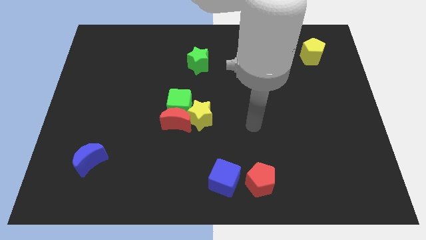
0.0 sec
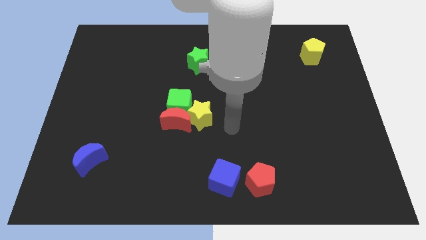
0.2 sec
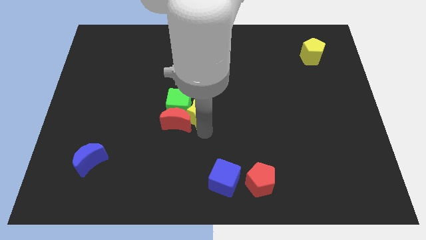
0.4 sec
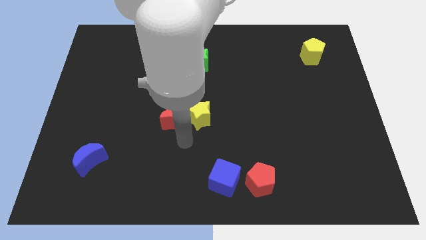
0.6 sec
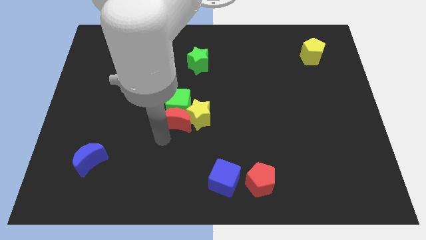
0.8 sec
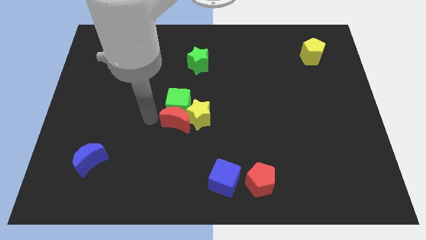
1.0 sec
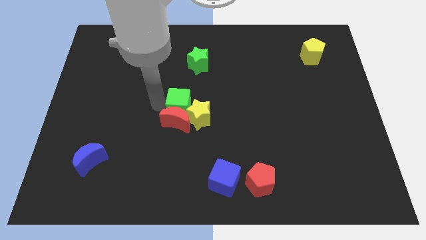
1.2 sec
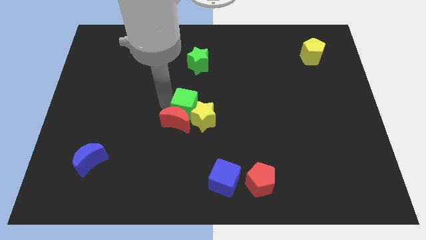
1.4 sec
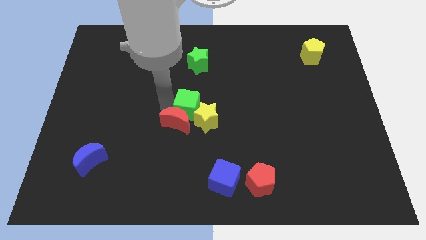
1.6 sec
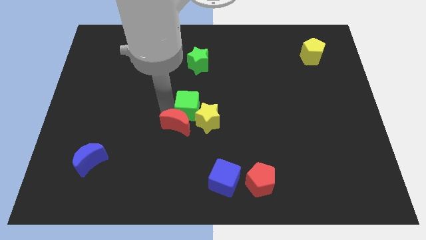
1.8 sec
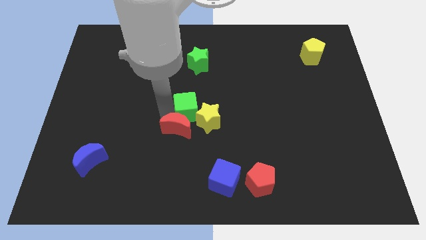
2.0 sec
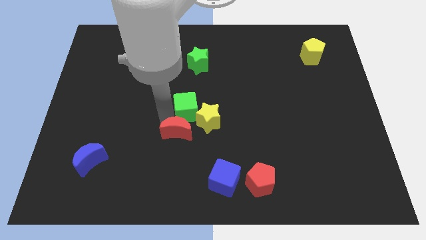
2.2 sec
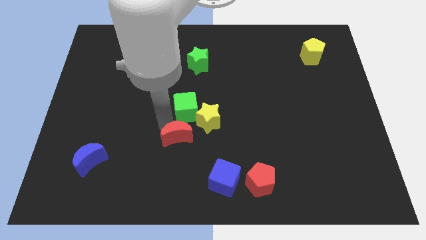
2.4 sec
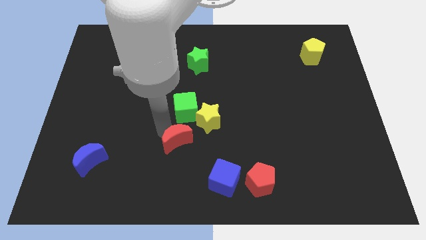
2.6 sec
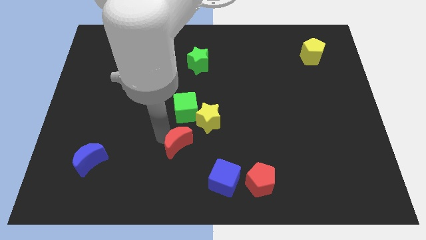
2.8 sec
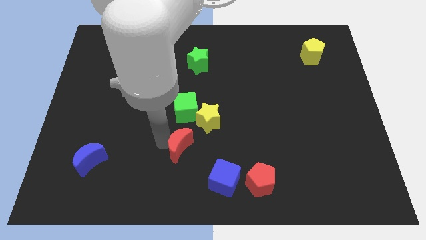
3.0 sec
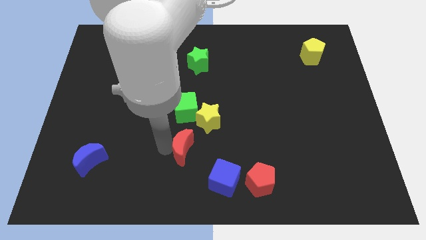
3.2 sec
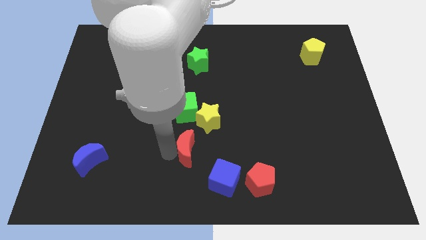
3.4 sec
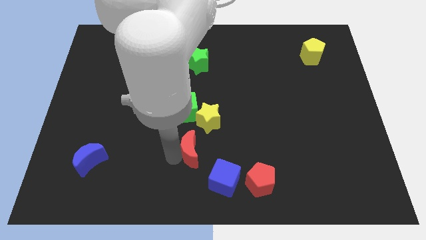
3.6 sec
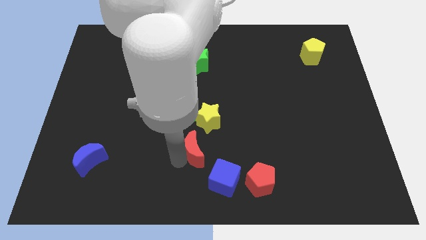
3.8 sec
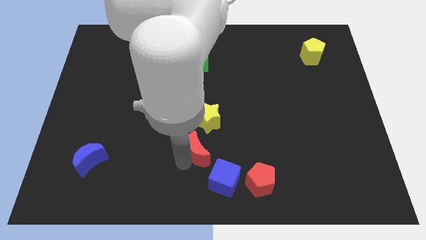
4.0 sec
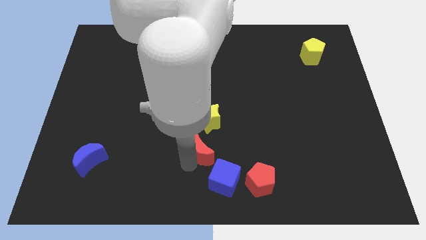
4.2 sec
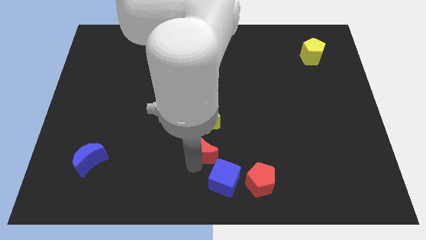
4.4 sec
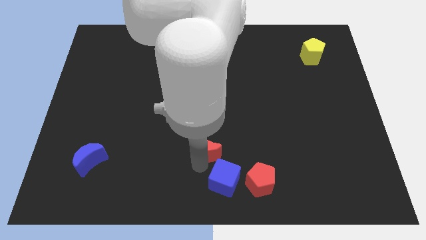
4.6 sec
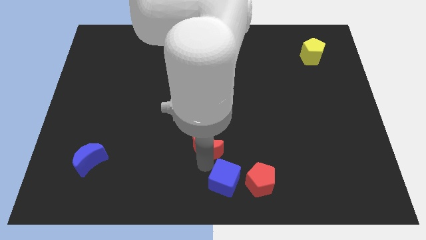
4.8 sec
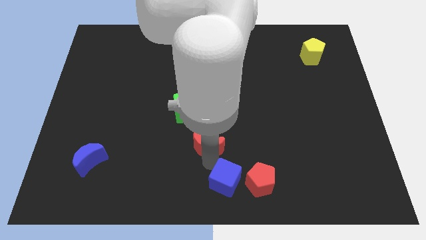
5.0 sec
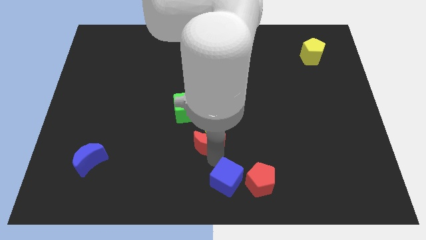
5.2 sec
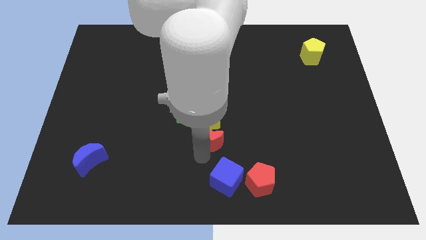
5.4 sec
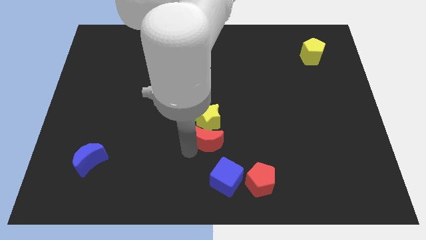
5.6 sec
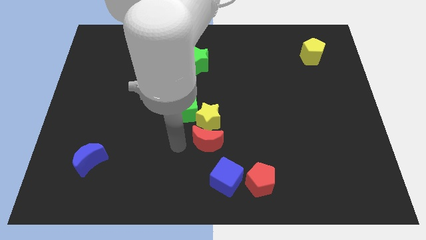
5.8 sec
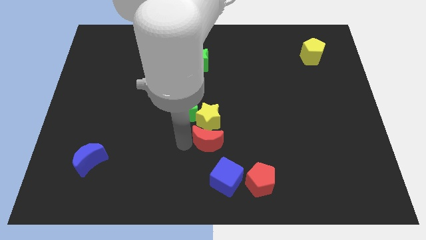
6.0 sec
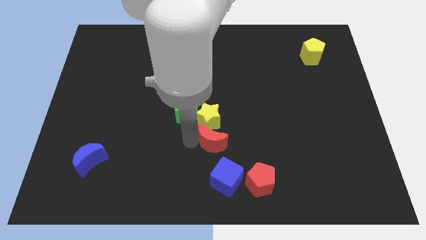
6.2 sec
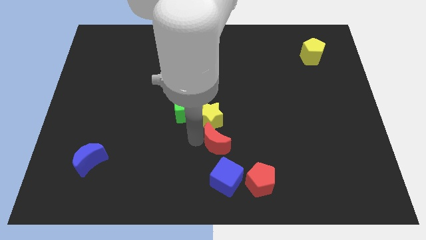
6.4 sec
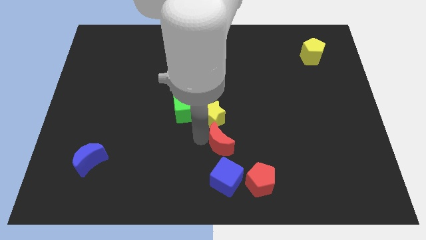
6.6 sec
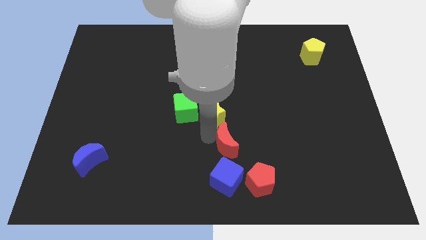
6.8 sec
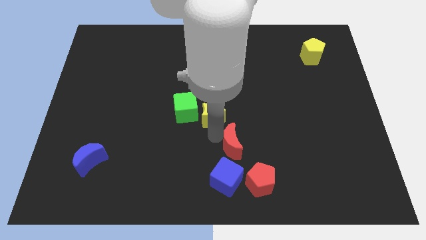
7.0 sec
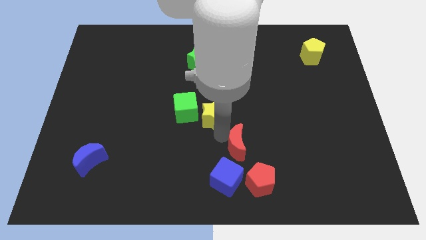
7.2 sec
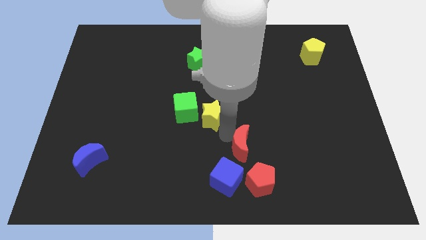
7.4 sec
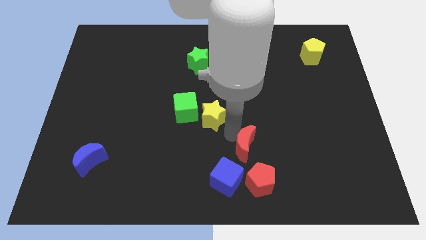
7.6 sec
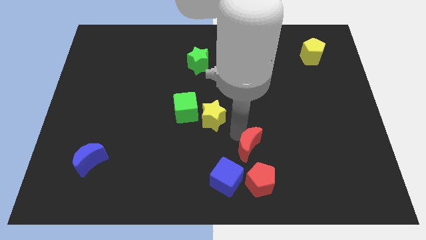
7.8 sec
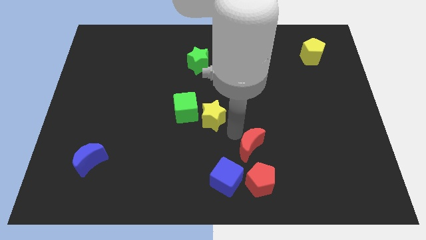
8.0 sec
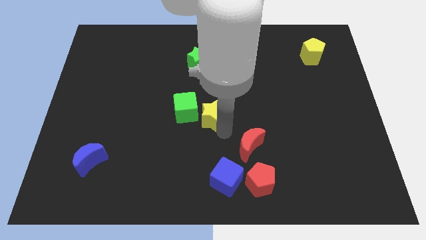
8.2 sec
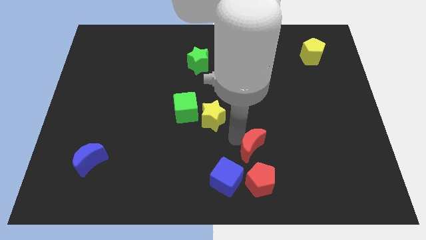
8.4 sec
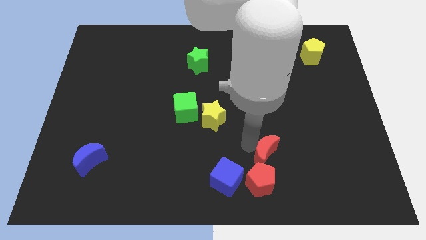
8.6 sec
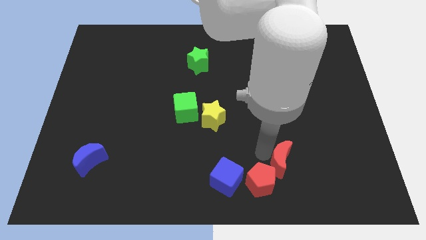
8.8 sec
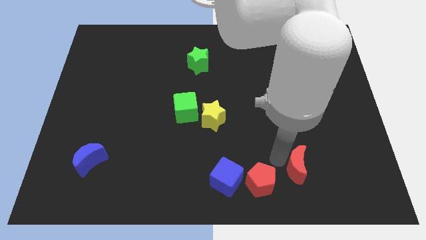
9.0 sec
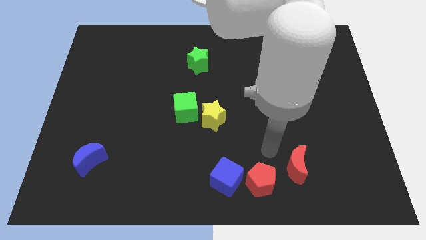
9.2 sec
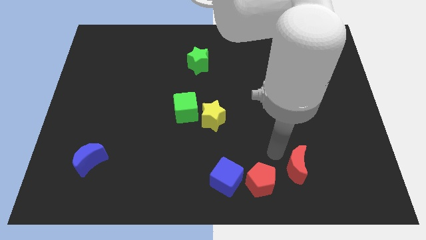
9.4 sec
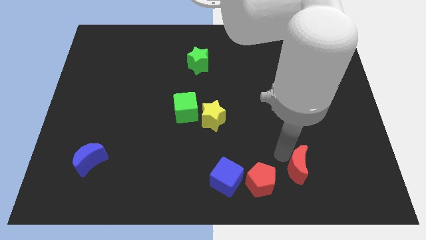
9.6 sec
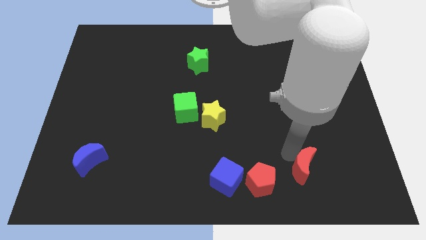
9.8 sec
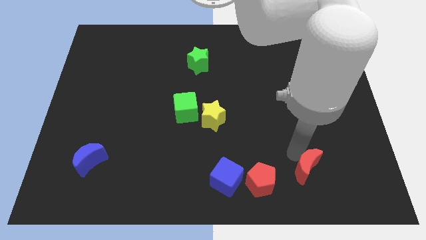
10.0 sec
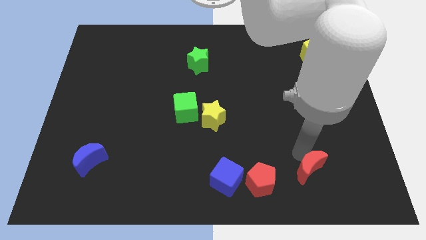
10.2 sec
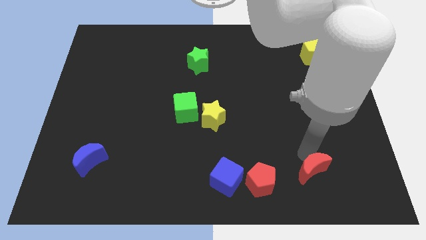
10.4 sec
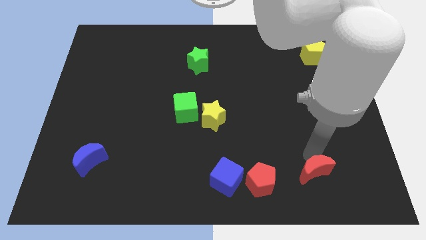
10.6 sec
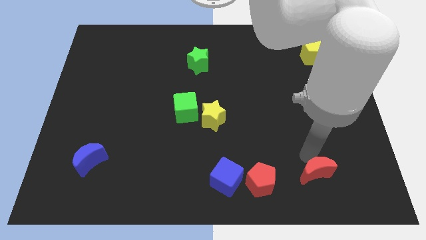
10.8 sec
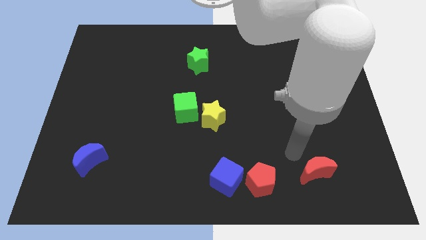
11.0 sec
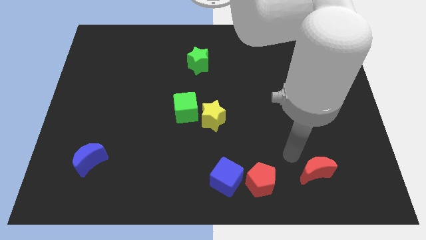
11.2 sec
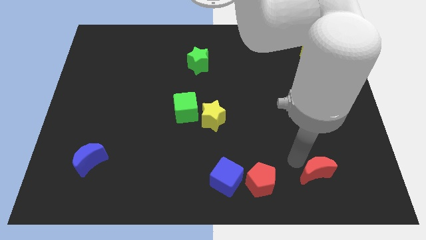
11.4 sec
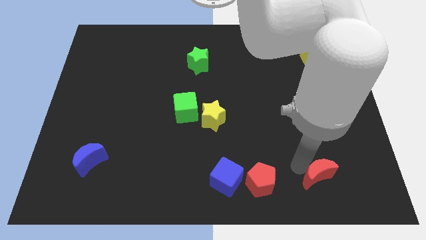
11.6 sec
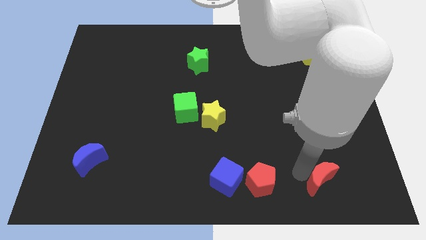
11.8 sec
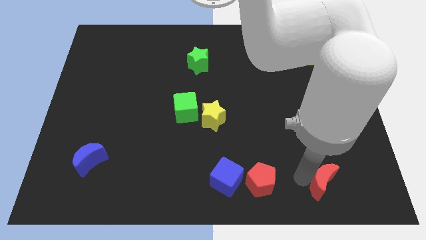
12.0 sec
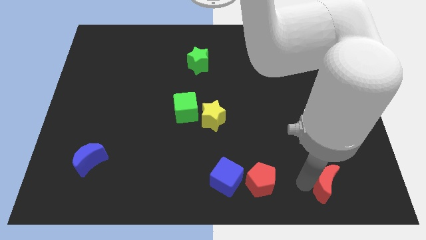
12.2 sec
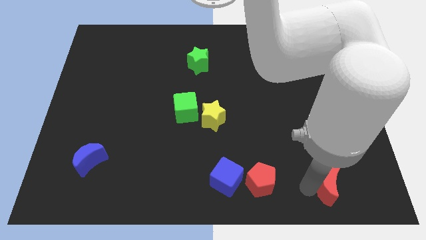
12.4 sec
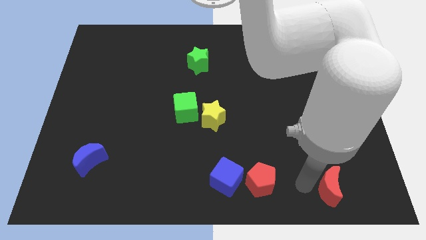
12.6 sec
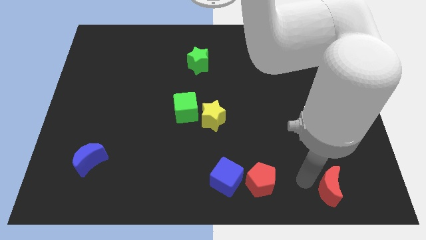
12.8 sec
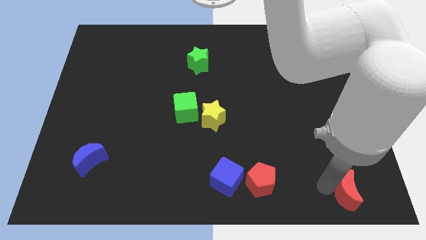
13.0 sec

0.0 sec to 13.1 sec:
push the red moon to the bottom right of the board
